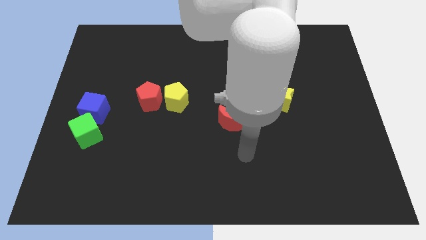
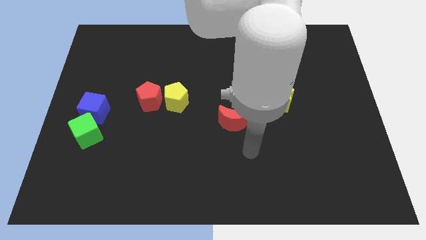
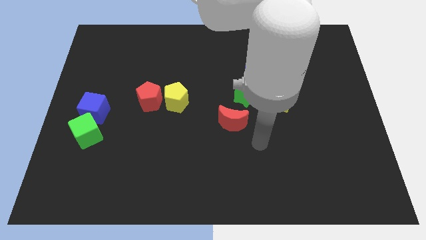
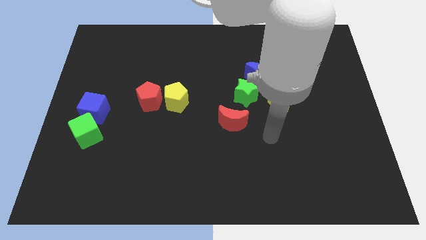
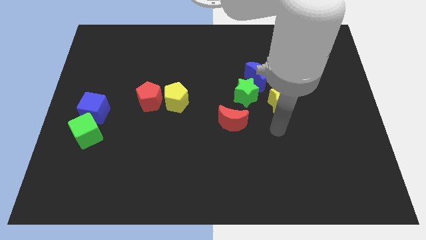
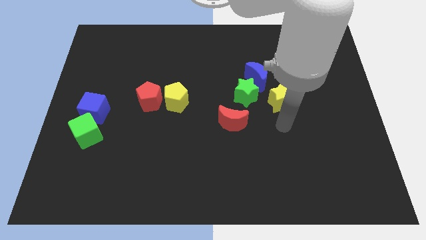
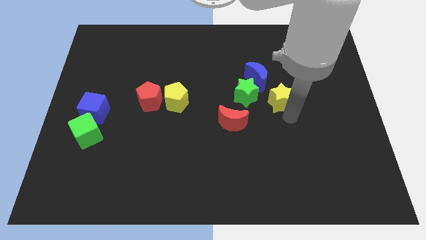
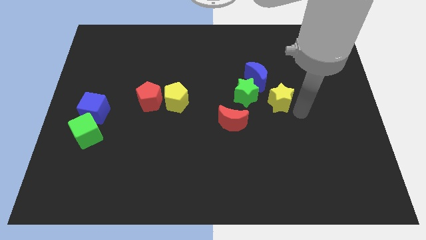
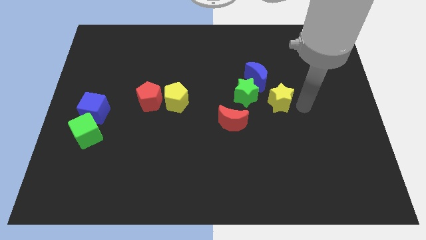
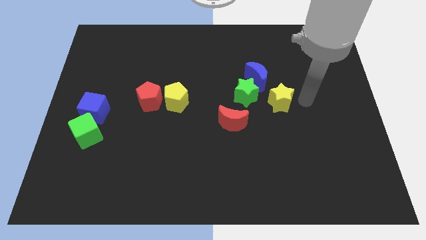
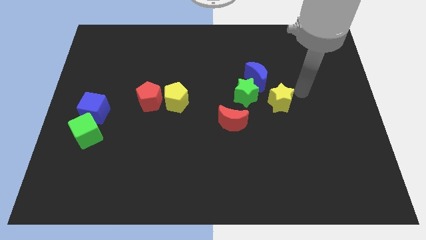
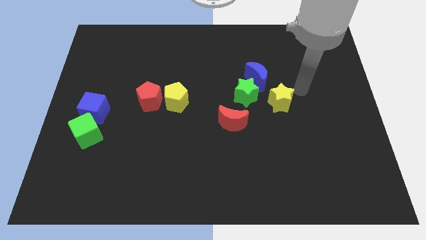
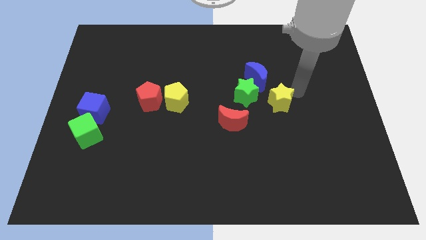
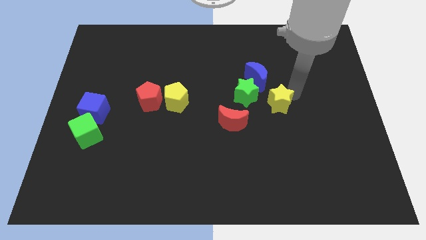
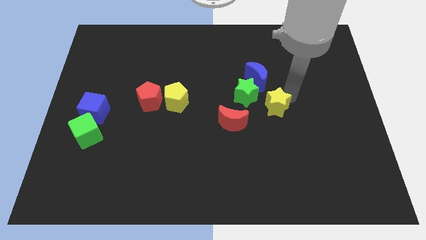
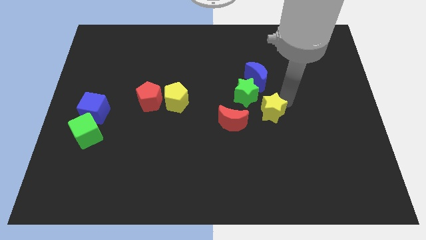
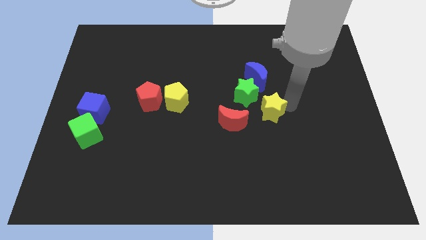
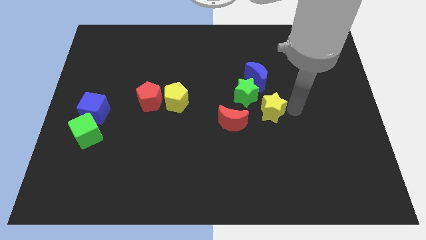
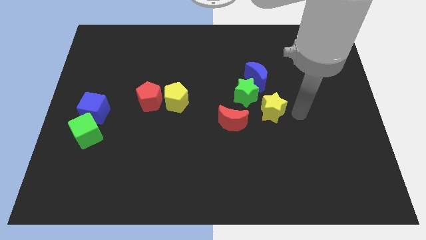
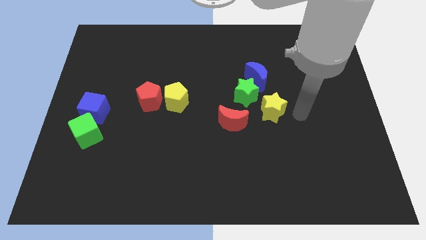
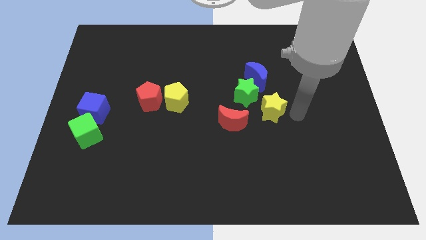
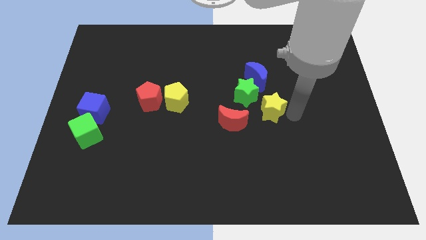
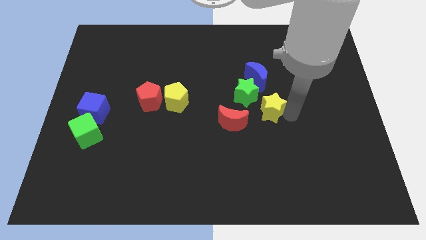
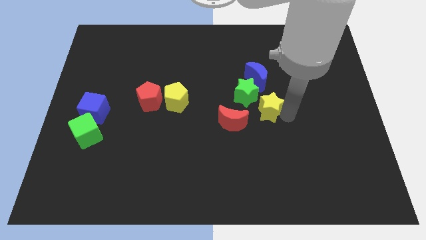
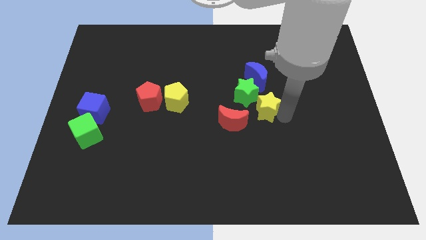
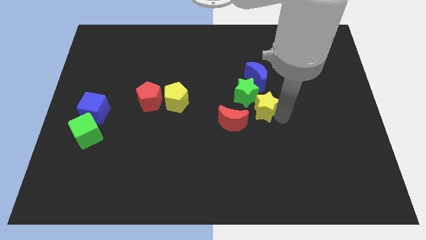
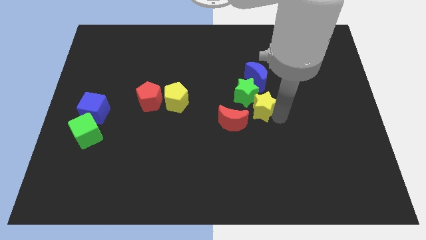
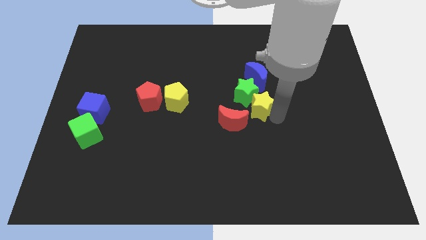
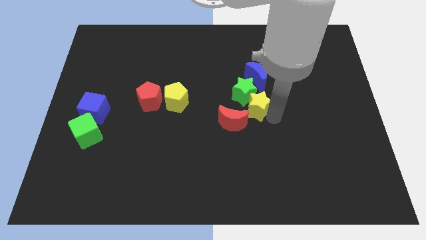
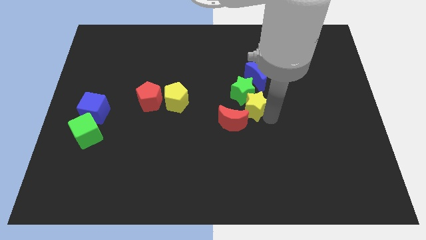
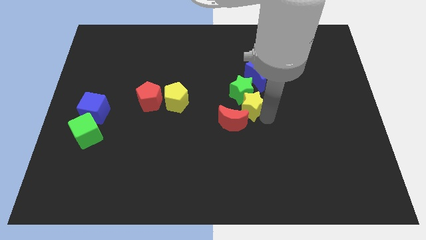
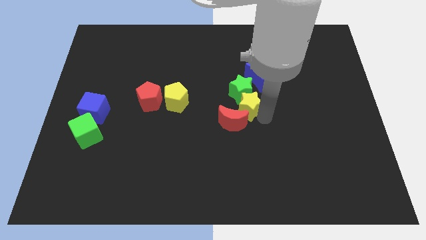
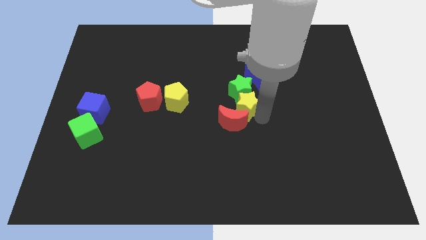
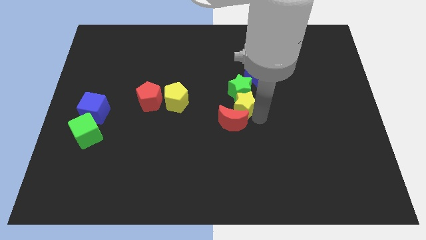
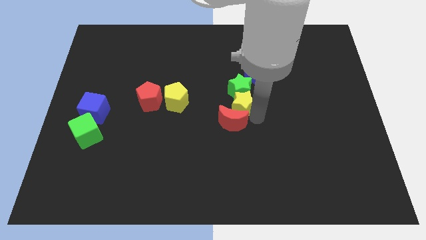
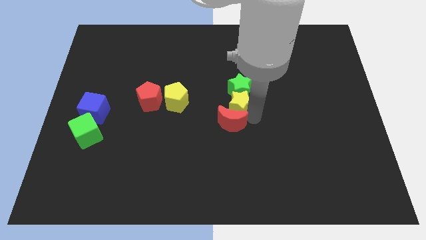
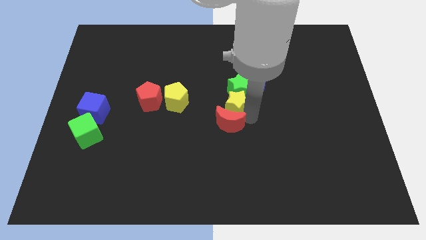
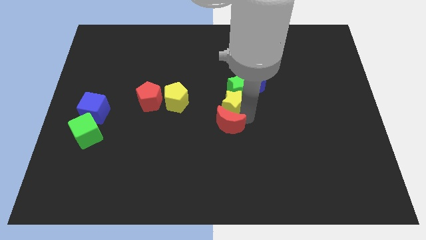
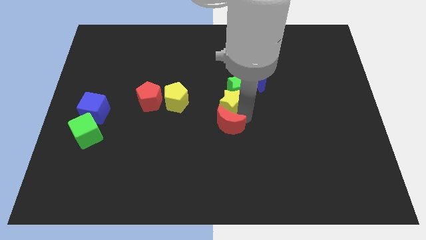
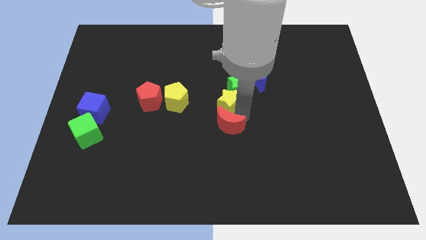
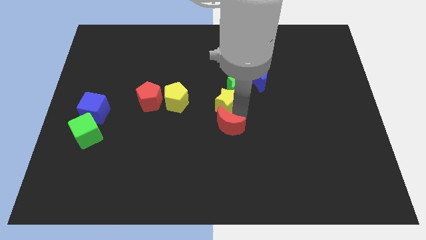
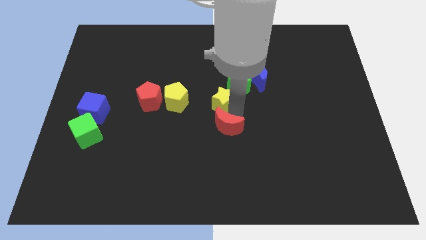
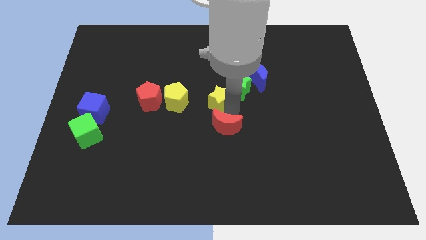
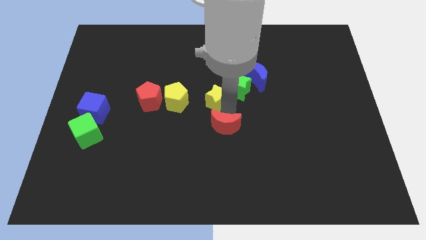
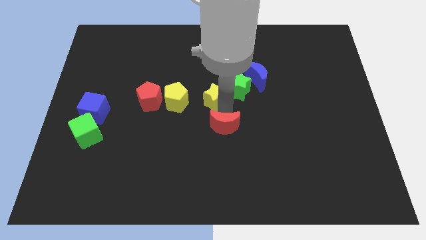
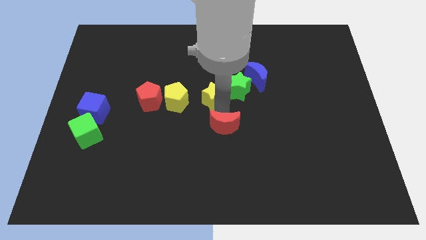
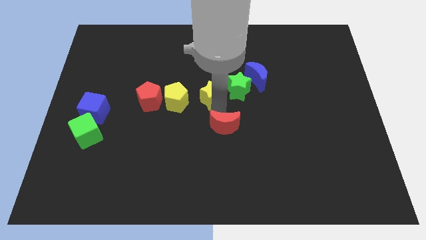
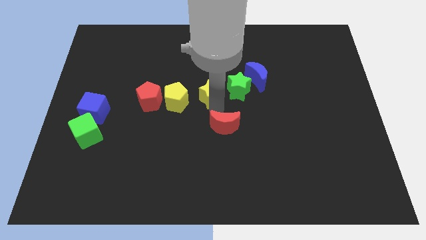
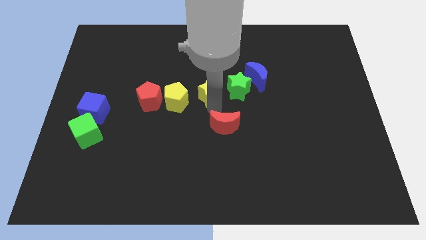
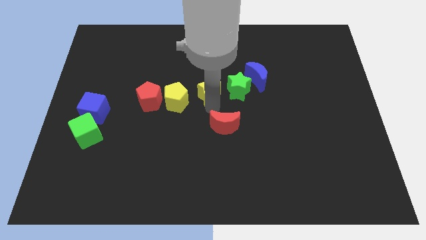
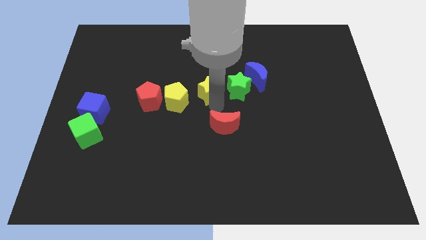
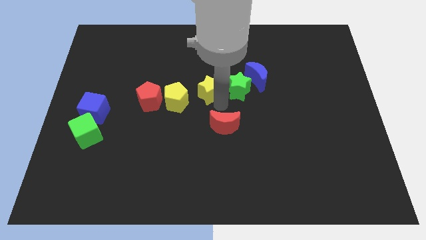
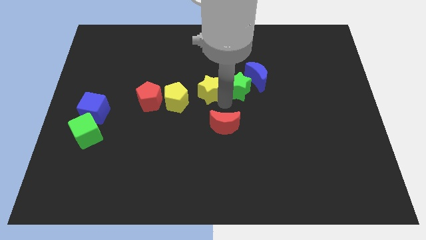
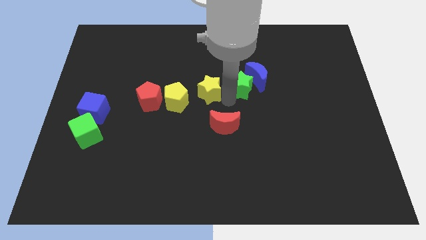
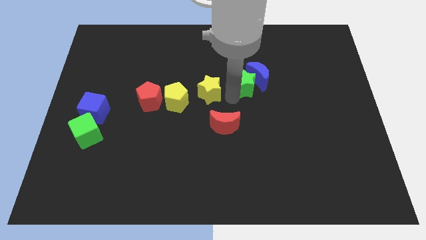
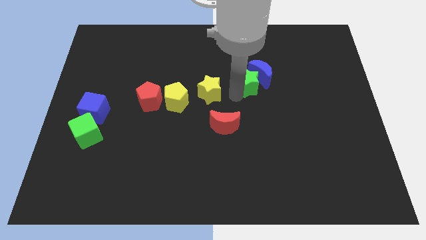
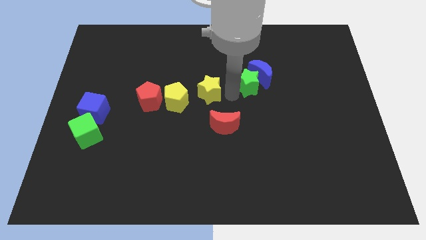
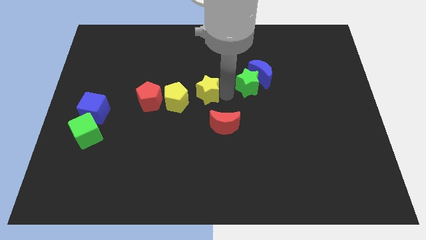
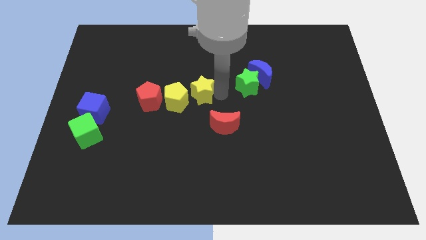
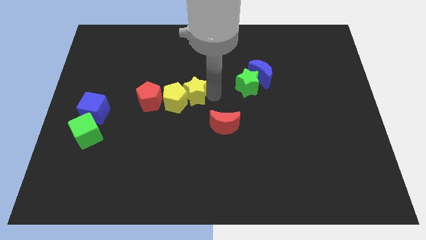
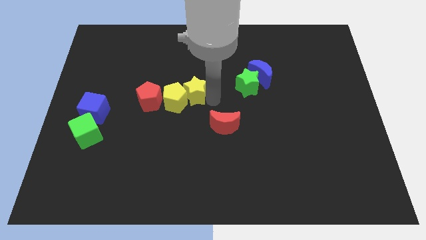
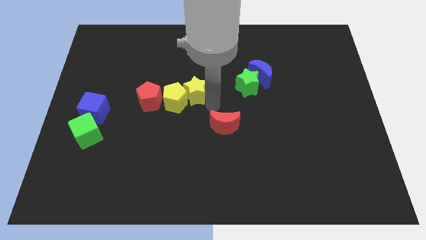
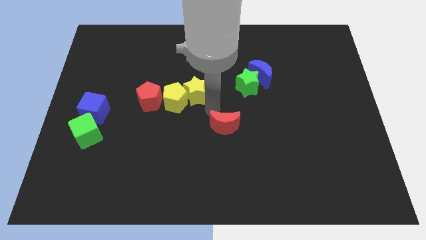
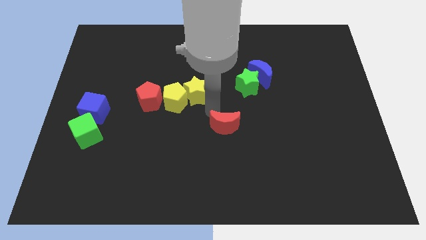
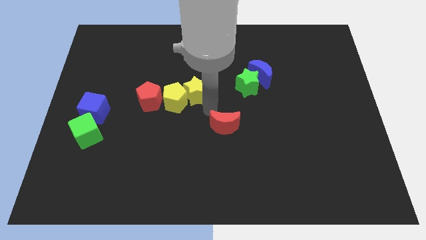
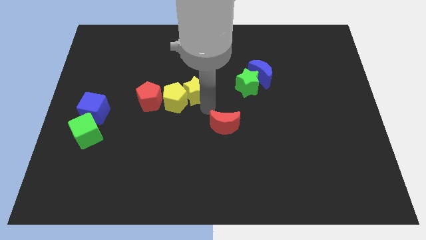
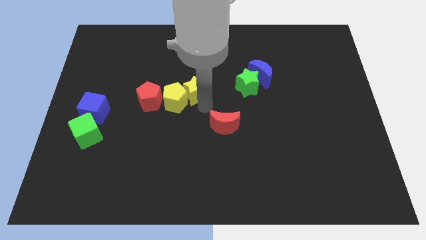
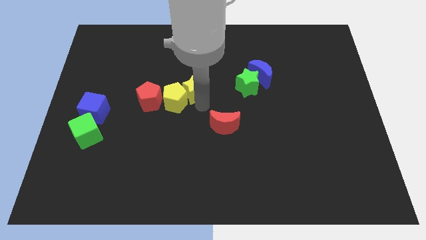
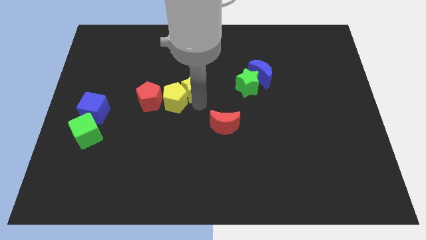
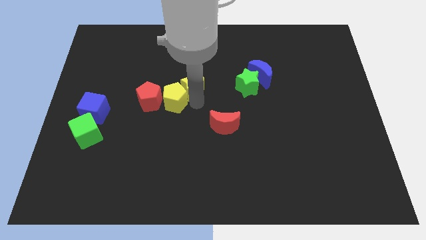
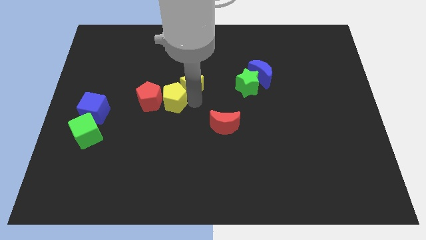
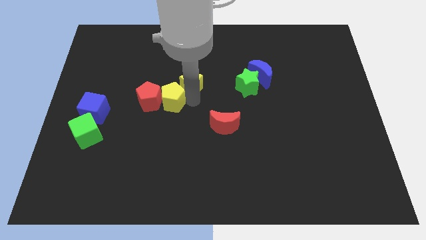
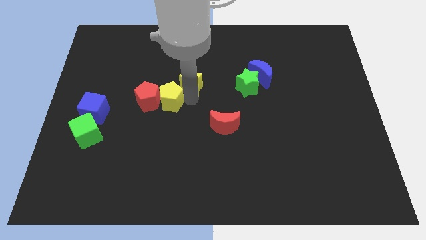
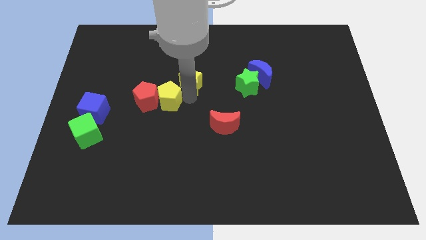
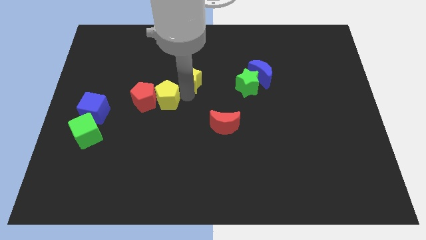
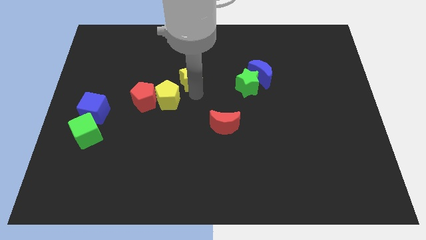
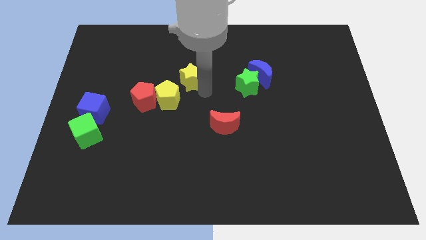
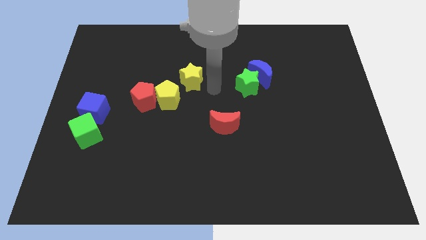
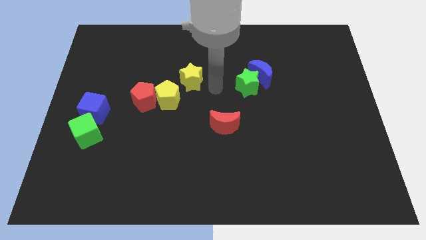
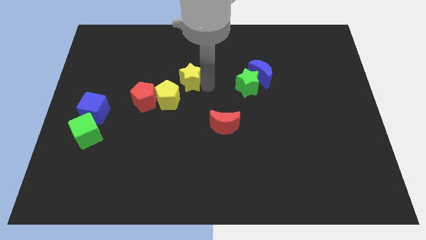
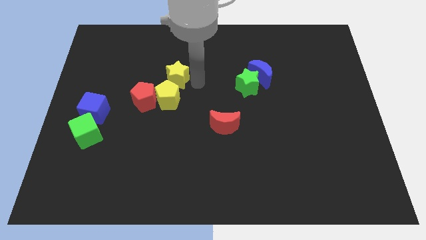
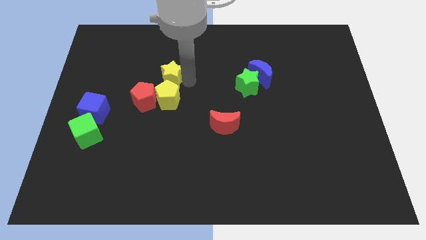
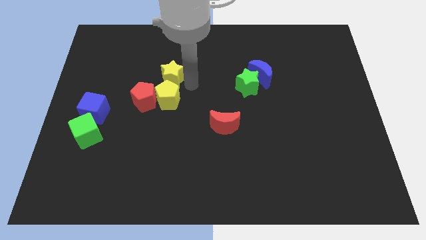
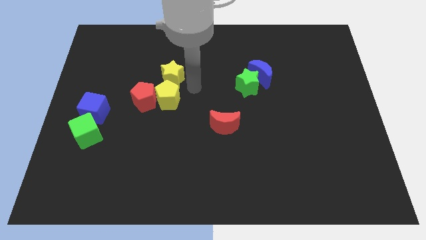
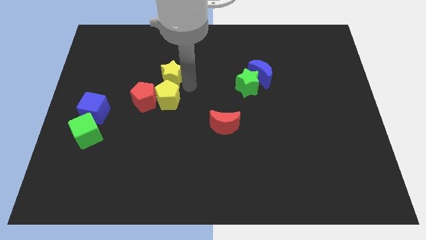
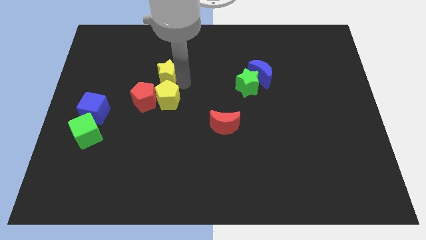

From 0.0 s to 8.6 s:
move the yellow star above the red pentagon
